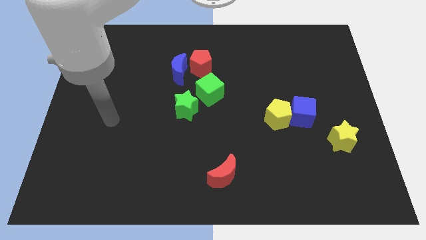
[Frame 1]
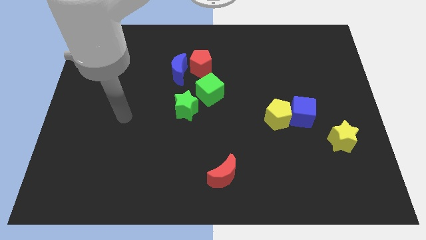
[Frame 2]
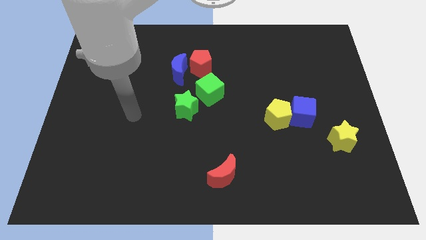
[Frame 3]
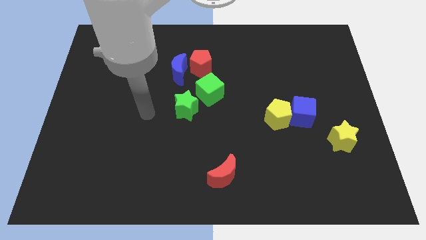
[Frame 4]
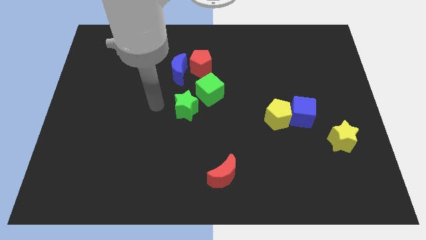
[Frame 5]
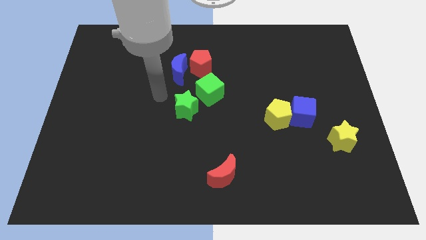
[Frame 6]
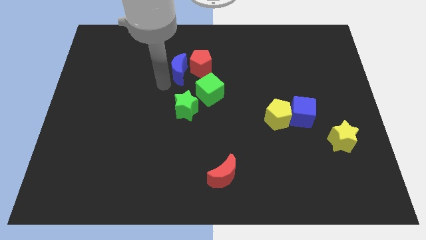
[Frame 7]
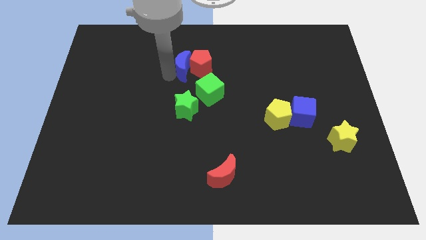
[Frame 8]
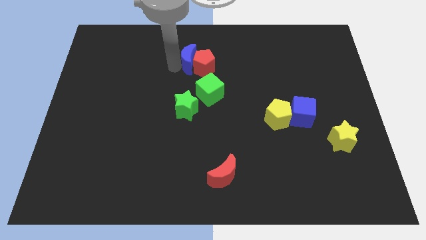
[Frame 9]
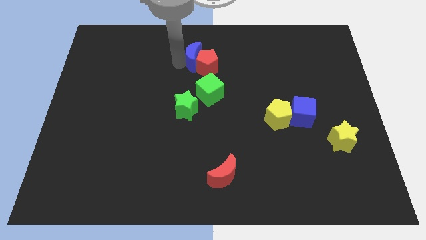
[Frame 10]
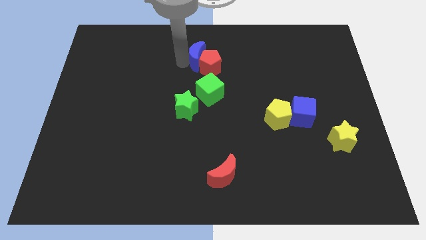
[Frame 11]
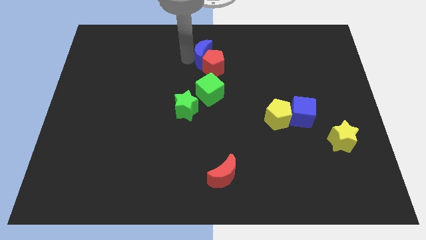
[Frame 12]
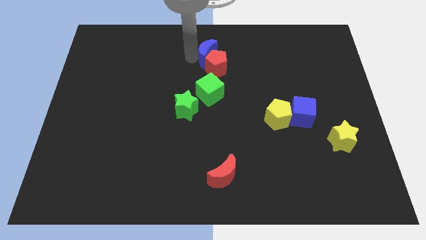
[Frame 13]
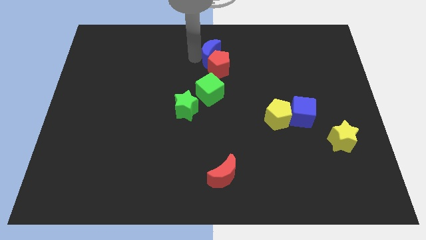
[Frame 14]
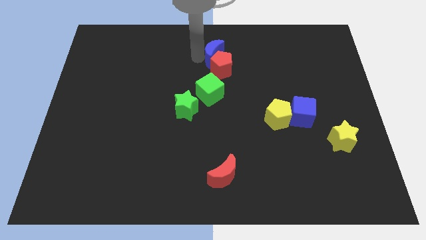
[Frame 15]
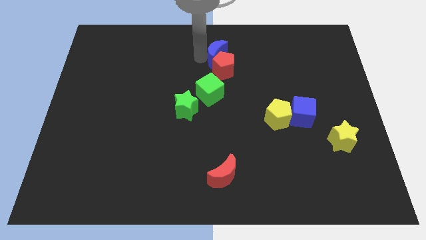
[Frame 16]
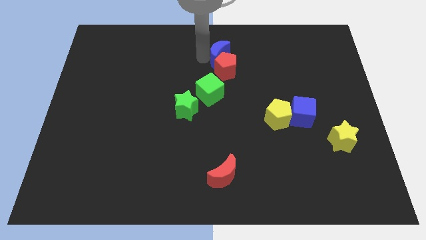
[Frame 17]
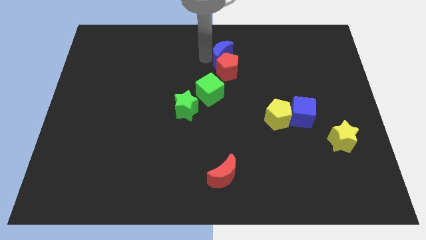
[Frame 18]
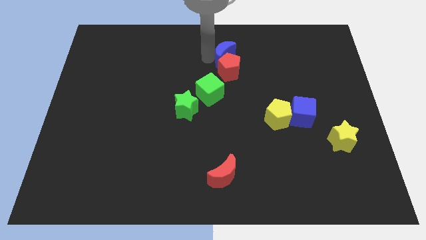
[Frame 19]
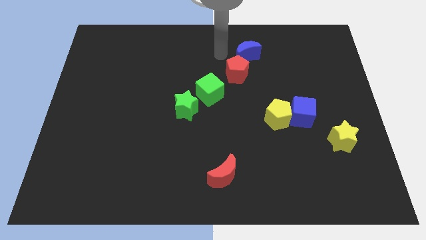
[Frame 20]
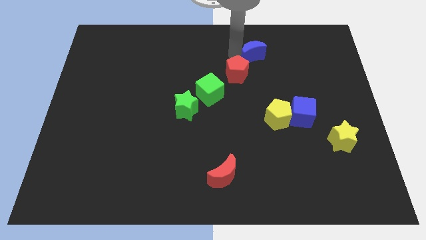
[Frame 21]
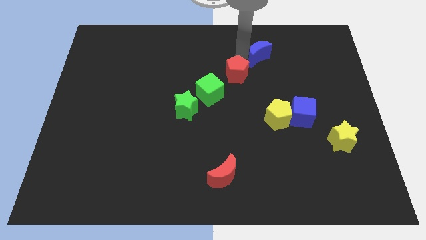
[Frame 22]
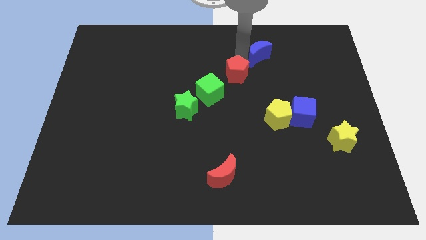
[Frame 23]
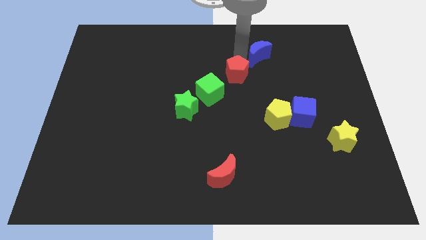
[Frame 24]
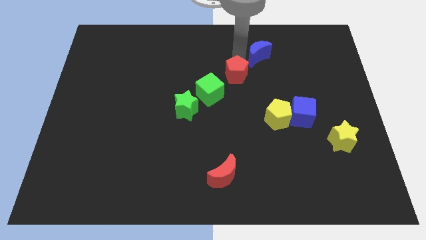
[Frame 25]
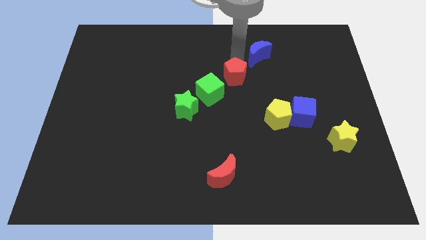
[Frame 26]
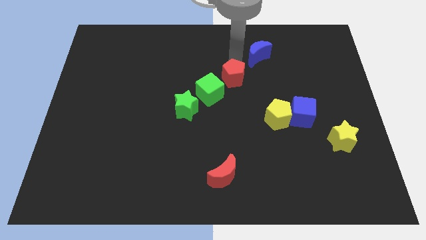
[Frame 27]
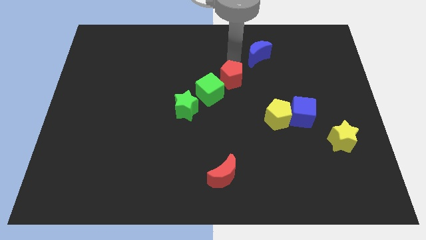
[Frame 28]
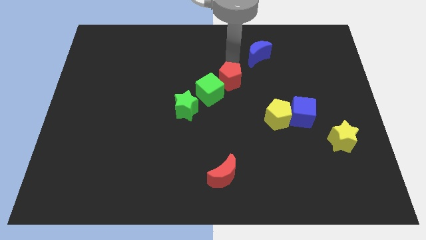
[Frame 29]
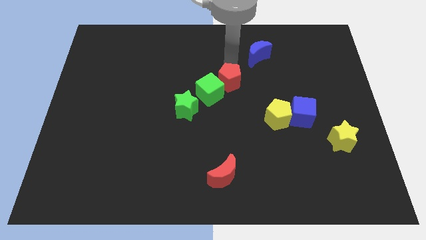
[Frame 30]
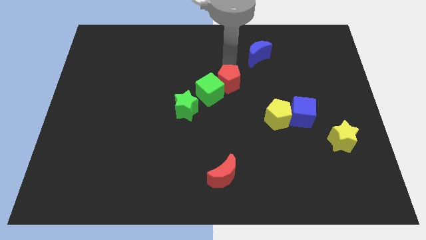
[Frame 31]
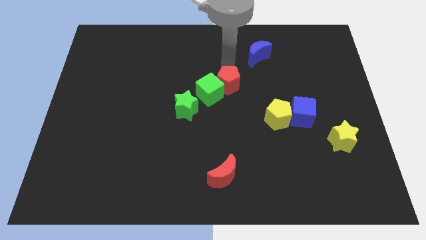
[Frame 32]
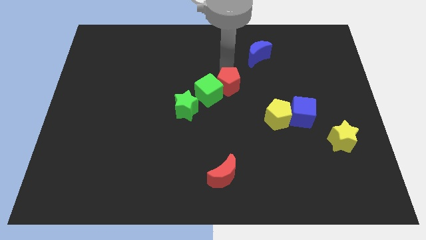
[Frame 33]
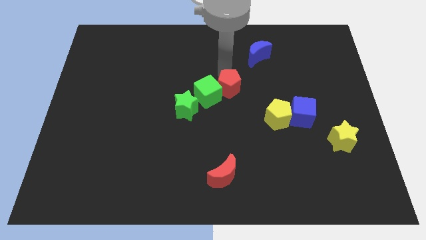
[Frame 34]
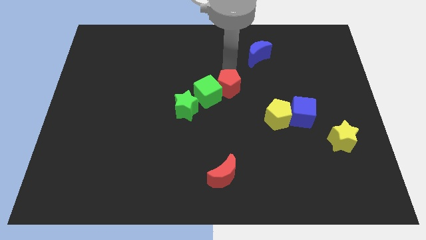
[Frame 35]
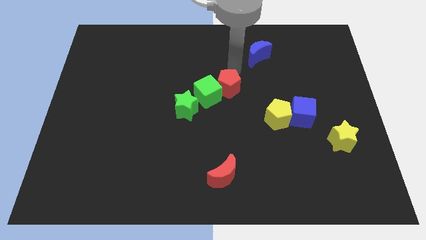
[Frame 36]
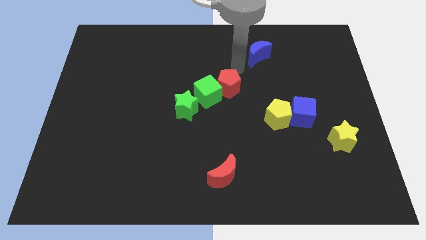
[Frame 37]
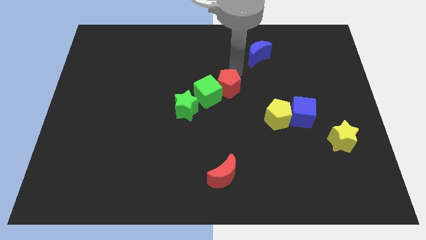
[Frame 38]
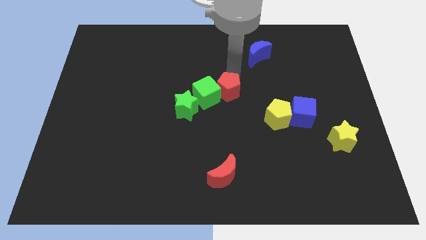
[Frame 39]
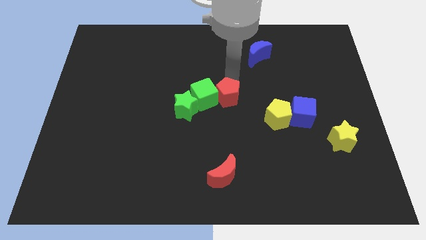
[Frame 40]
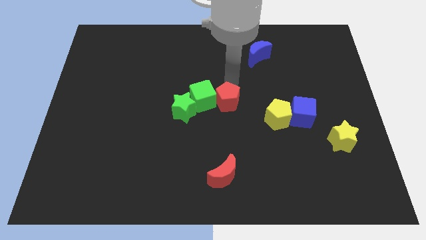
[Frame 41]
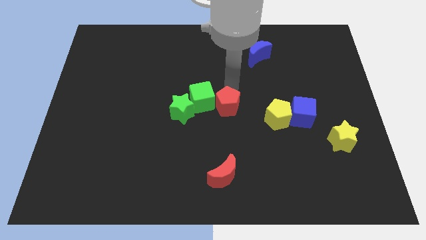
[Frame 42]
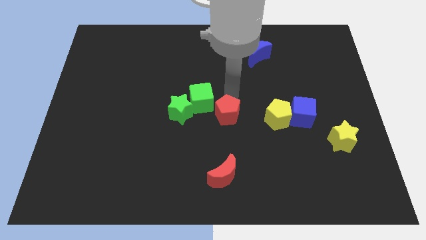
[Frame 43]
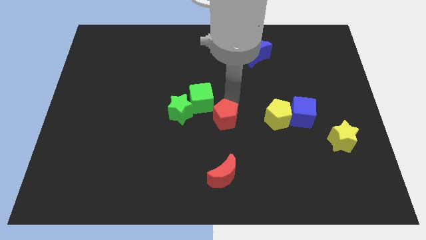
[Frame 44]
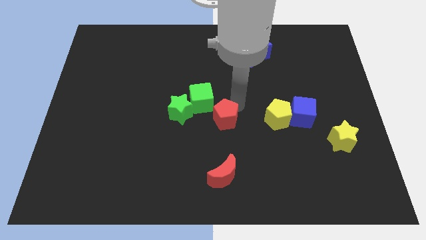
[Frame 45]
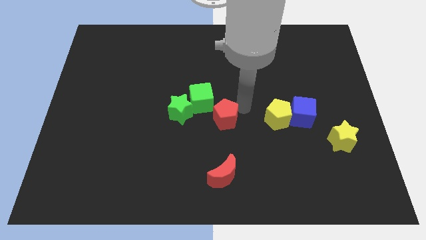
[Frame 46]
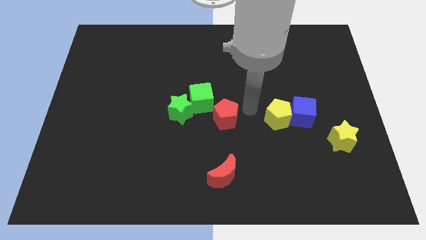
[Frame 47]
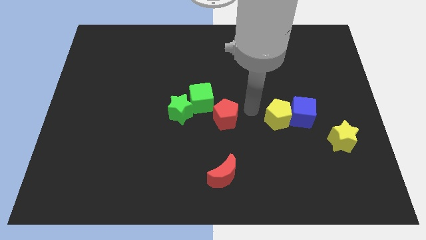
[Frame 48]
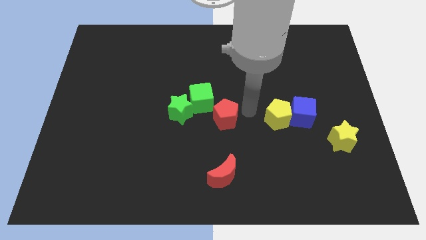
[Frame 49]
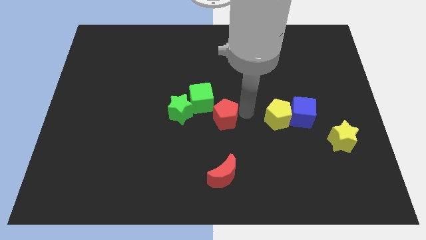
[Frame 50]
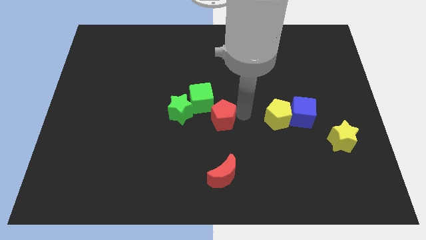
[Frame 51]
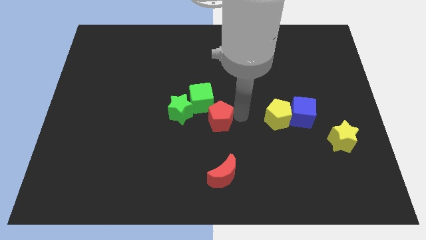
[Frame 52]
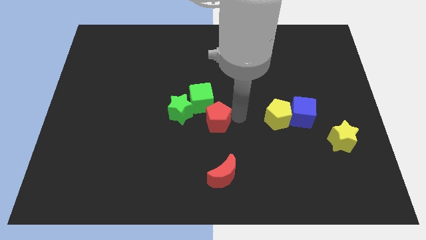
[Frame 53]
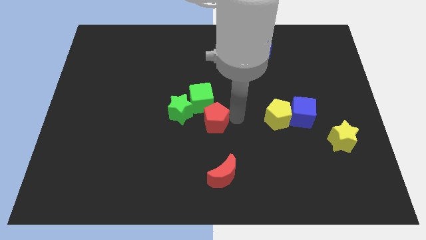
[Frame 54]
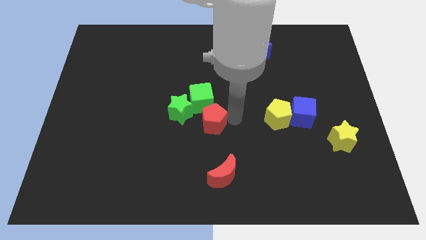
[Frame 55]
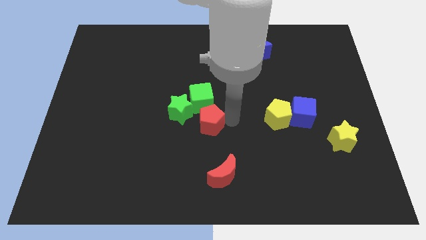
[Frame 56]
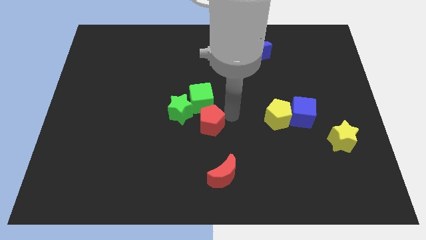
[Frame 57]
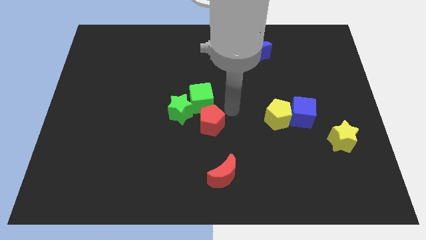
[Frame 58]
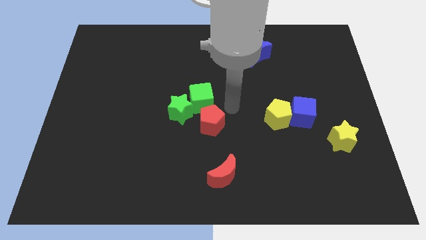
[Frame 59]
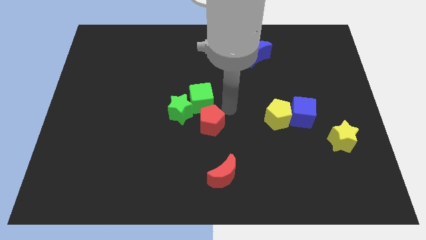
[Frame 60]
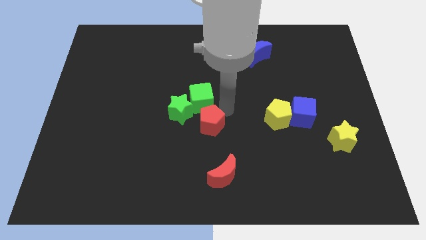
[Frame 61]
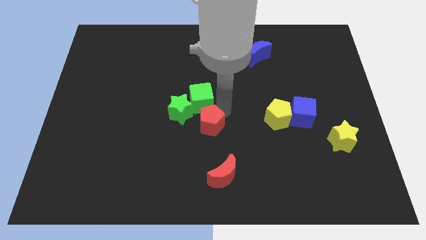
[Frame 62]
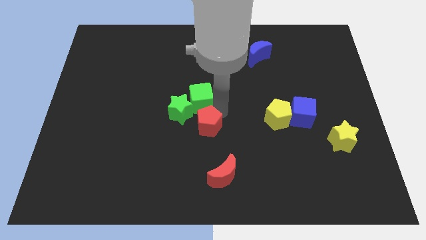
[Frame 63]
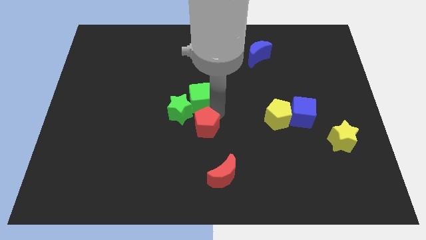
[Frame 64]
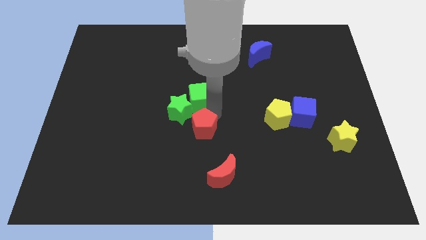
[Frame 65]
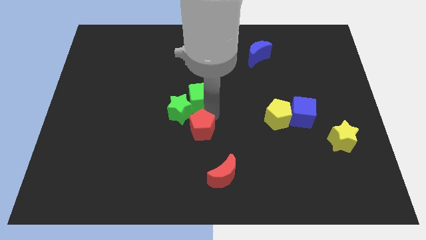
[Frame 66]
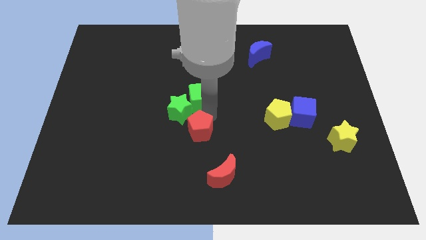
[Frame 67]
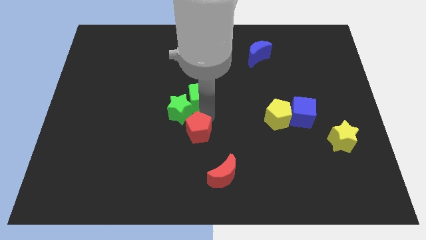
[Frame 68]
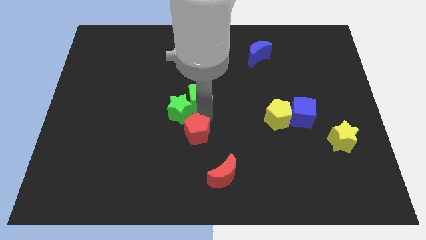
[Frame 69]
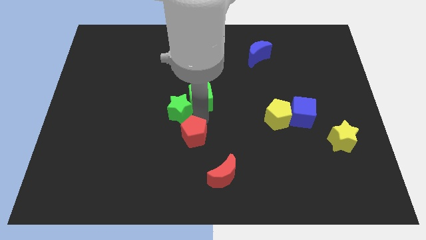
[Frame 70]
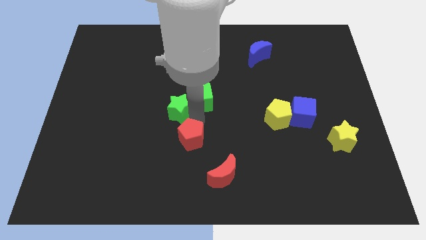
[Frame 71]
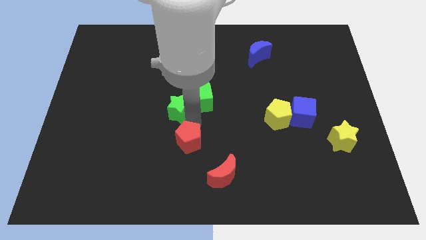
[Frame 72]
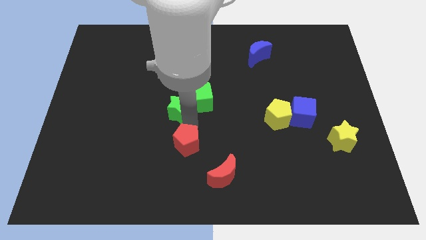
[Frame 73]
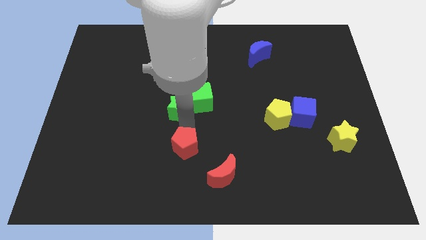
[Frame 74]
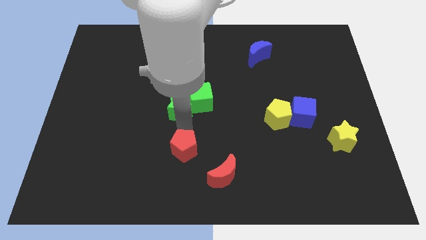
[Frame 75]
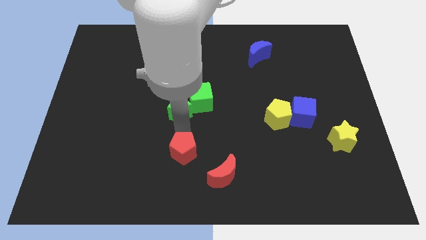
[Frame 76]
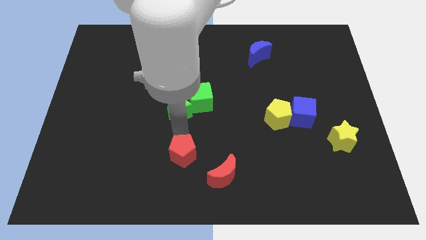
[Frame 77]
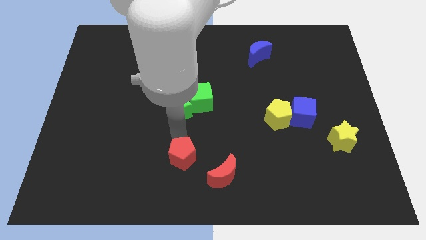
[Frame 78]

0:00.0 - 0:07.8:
slide the red pentagon to the left side of the red moon
